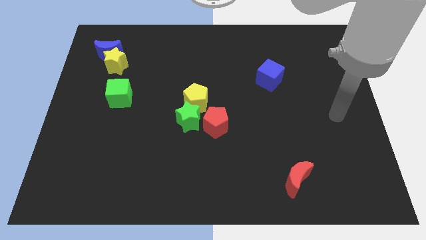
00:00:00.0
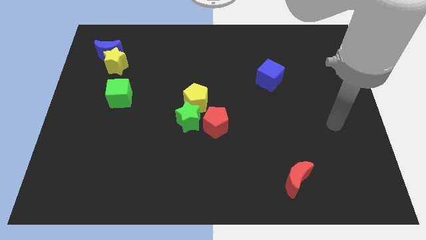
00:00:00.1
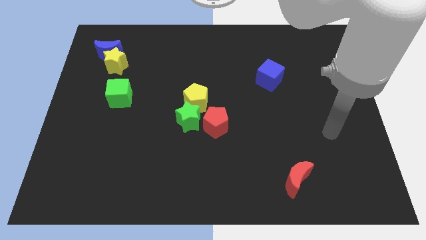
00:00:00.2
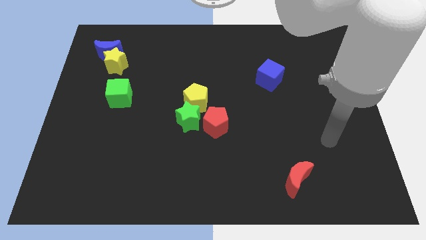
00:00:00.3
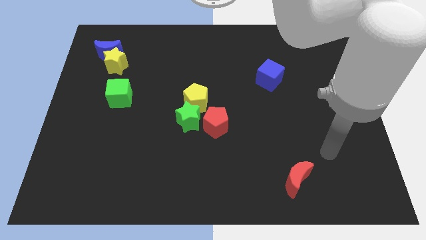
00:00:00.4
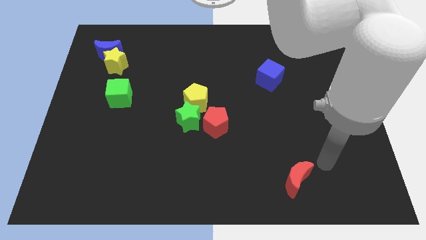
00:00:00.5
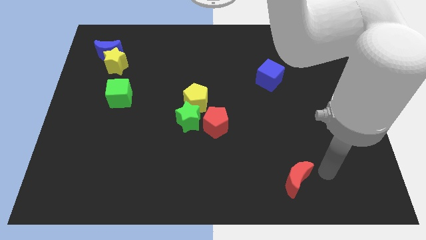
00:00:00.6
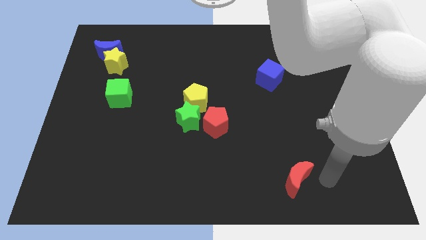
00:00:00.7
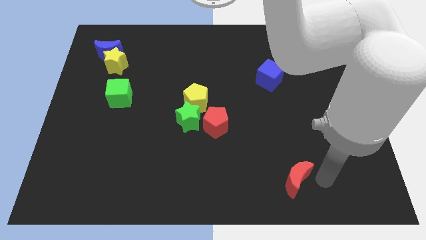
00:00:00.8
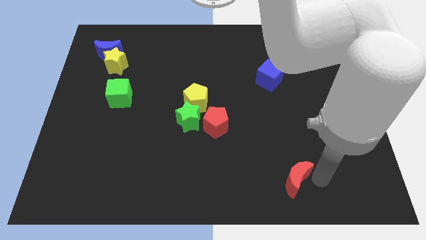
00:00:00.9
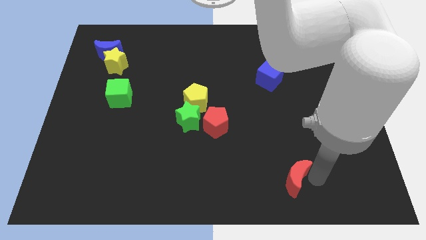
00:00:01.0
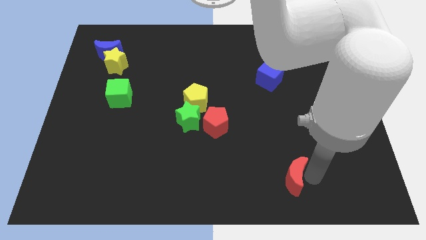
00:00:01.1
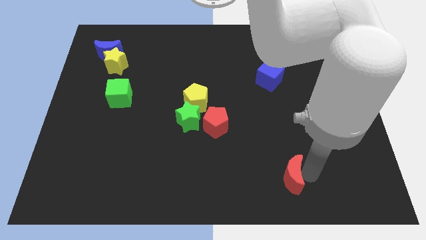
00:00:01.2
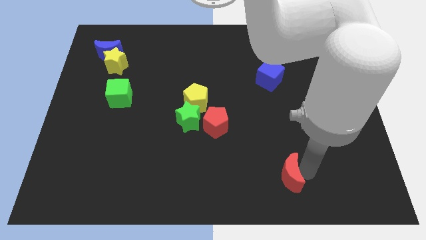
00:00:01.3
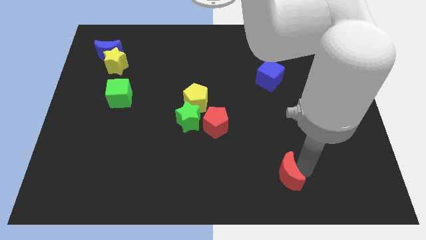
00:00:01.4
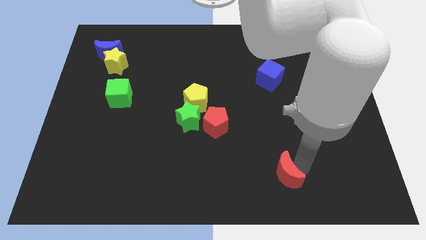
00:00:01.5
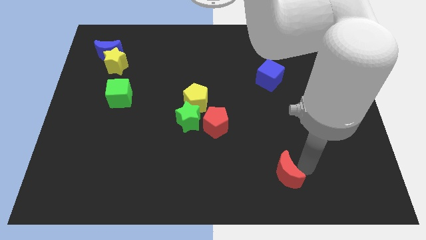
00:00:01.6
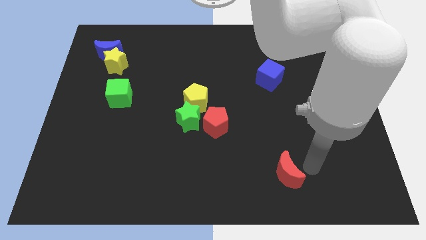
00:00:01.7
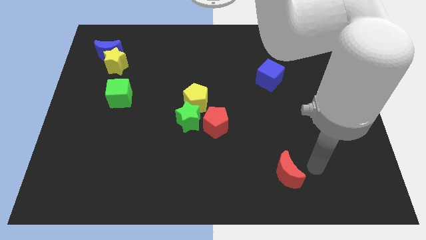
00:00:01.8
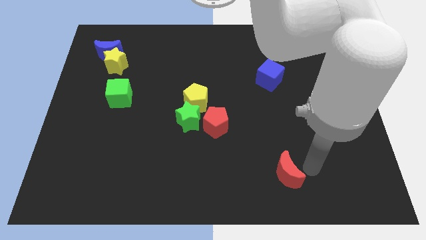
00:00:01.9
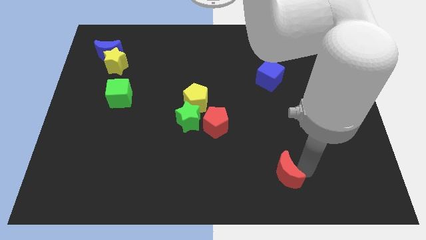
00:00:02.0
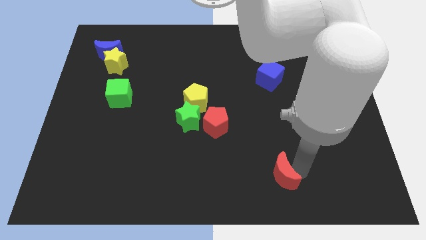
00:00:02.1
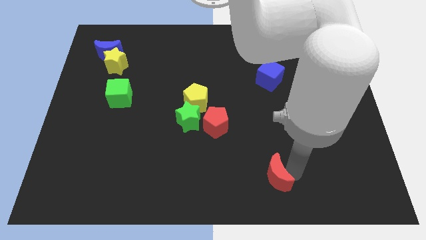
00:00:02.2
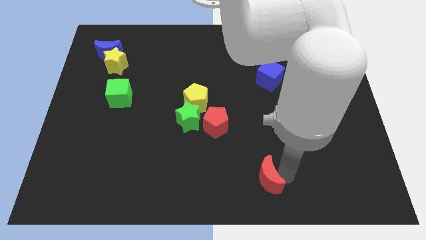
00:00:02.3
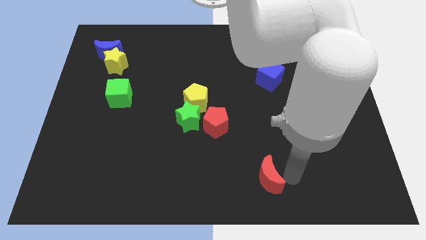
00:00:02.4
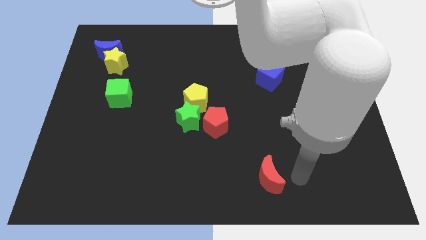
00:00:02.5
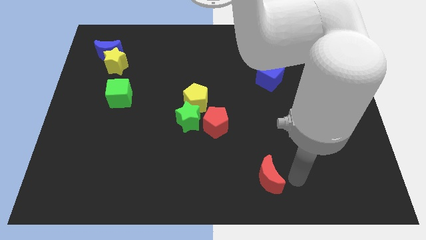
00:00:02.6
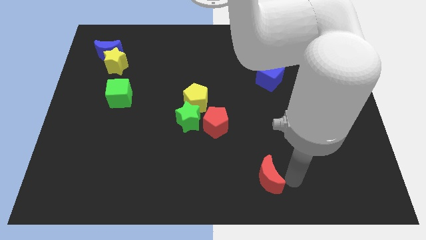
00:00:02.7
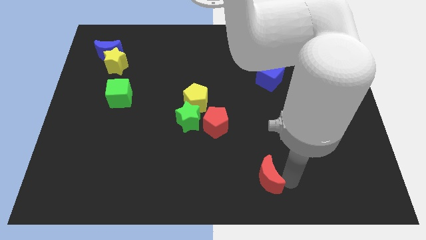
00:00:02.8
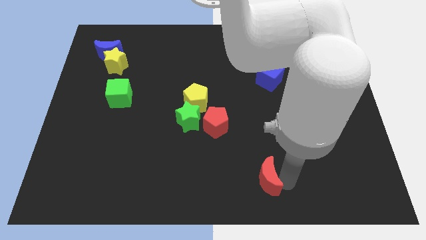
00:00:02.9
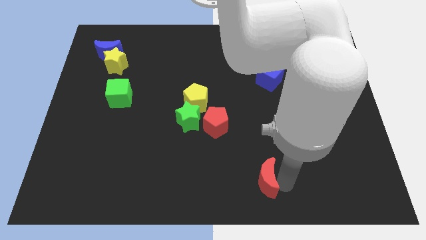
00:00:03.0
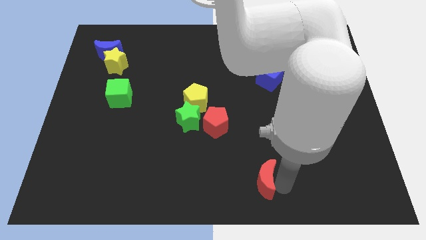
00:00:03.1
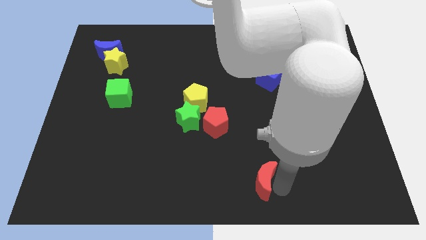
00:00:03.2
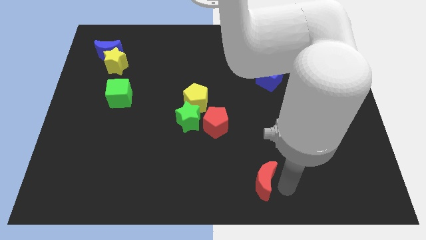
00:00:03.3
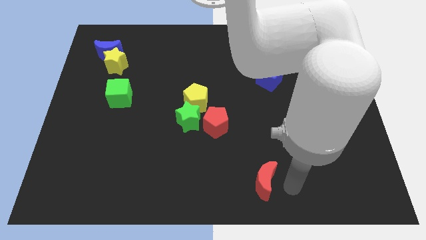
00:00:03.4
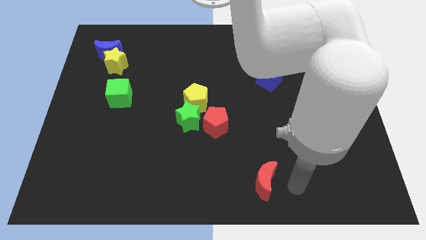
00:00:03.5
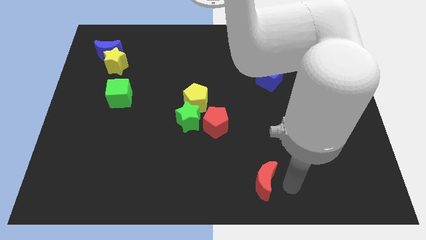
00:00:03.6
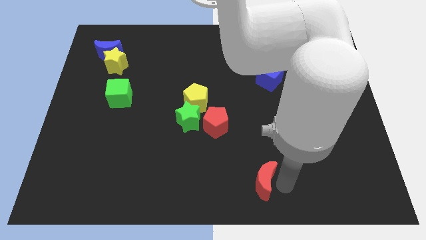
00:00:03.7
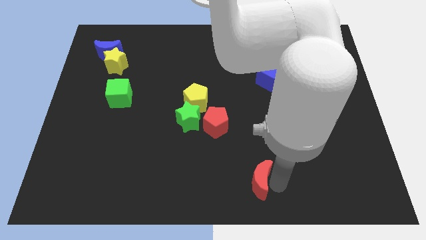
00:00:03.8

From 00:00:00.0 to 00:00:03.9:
slide the red moon to the left somewhat

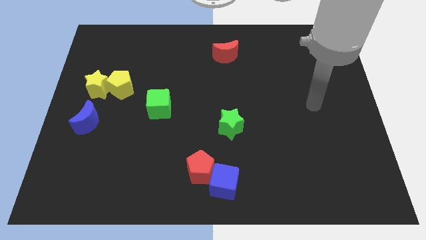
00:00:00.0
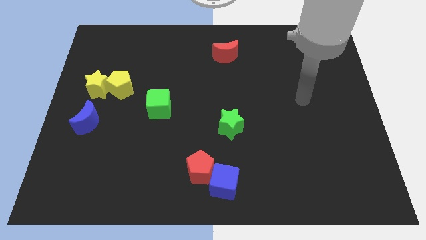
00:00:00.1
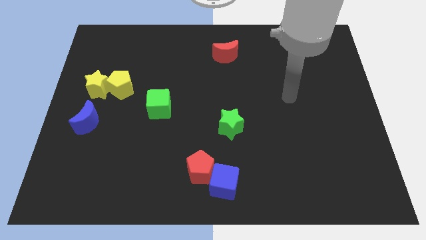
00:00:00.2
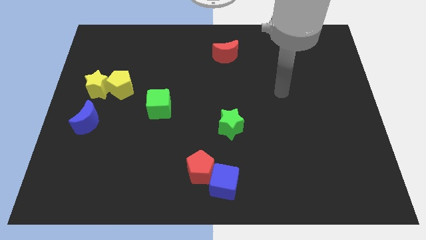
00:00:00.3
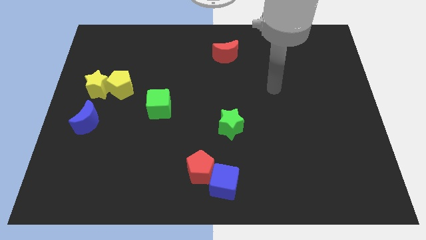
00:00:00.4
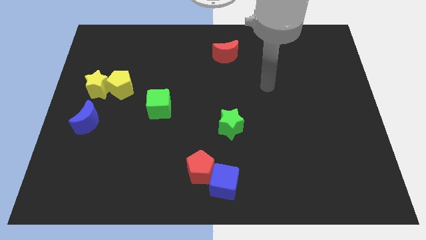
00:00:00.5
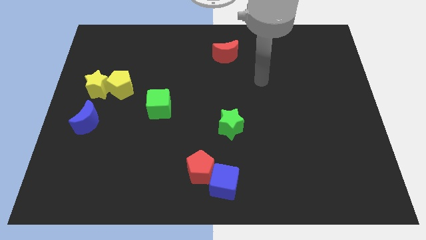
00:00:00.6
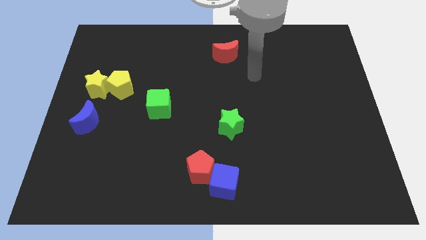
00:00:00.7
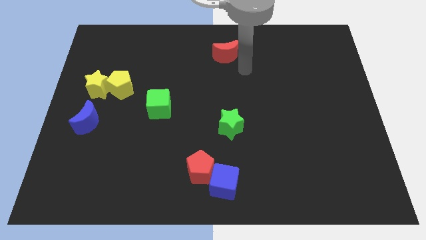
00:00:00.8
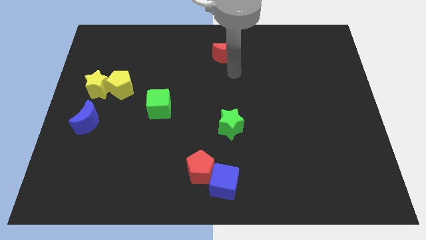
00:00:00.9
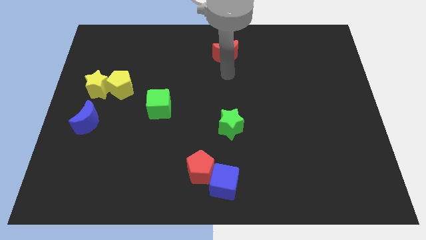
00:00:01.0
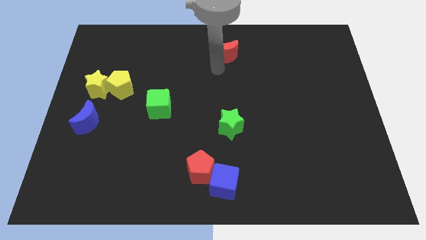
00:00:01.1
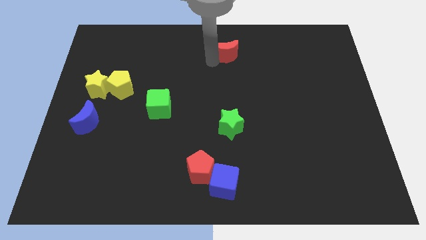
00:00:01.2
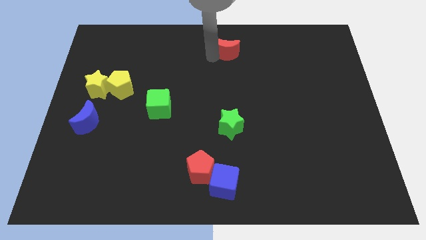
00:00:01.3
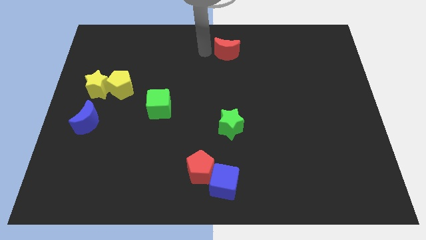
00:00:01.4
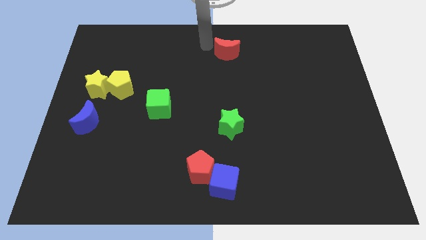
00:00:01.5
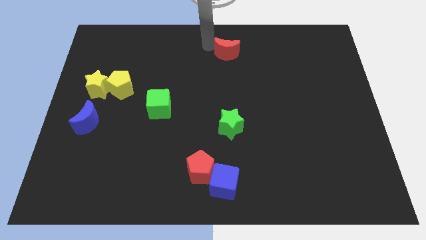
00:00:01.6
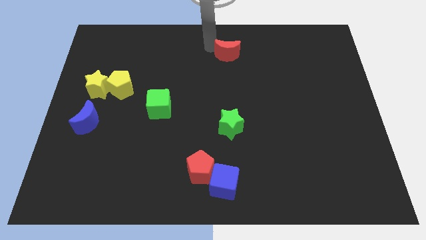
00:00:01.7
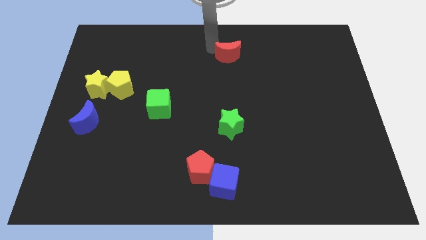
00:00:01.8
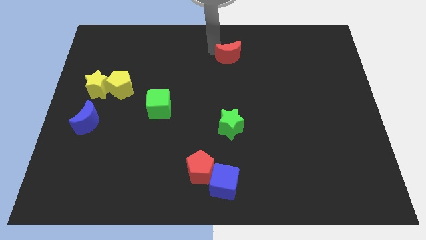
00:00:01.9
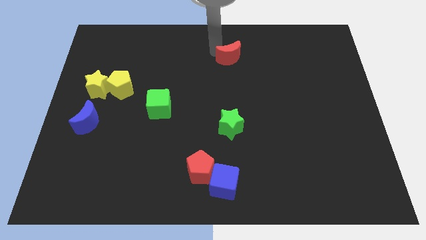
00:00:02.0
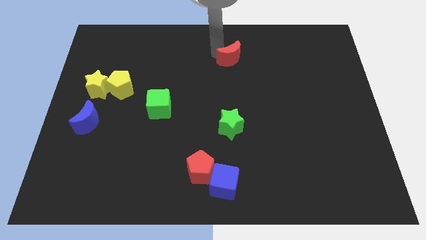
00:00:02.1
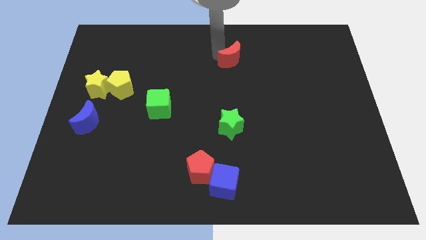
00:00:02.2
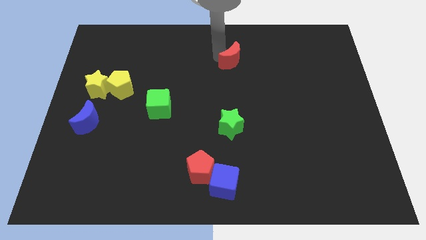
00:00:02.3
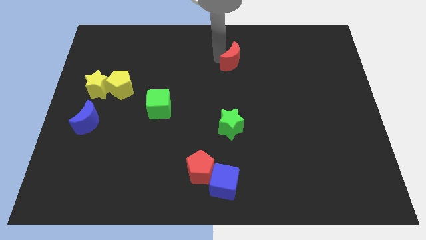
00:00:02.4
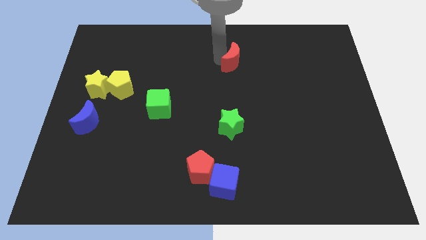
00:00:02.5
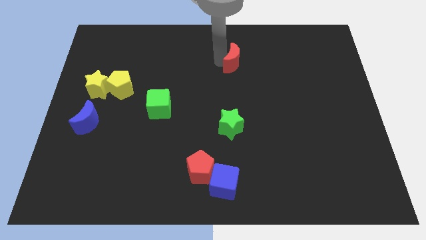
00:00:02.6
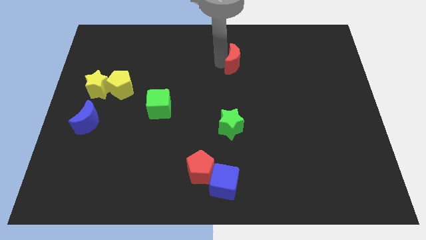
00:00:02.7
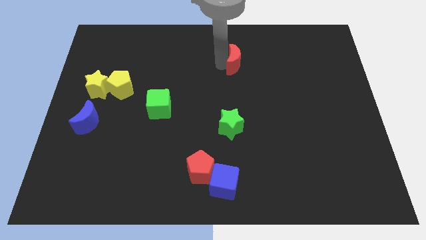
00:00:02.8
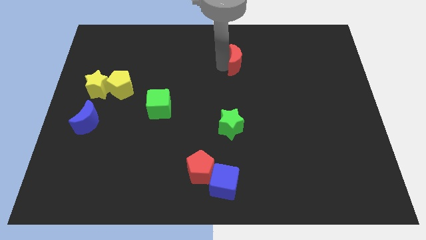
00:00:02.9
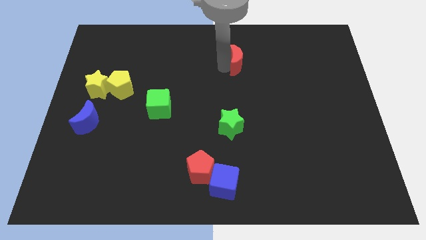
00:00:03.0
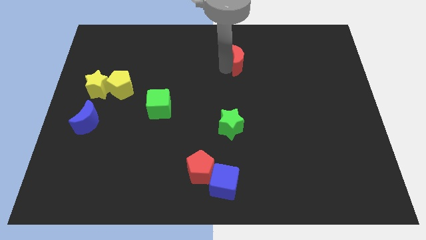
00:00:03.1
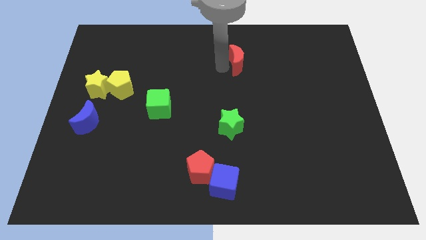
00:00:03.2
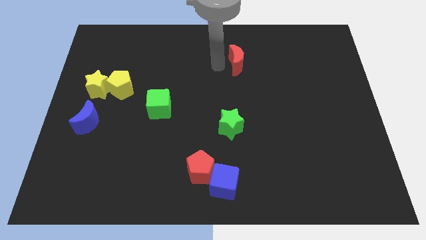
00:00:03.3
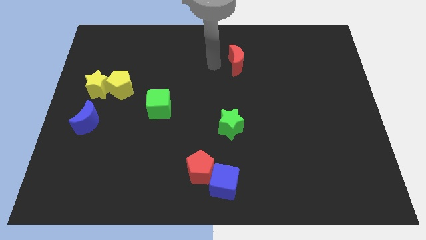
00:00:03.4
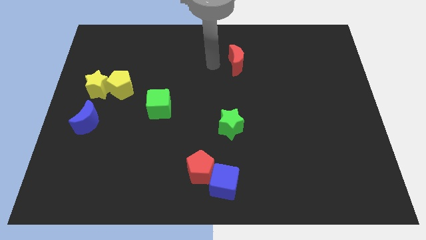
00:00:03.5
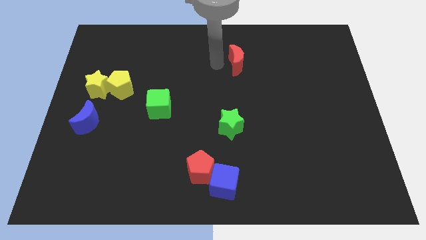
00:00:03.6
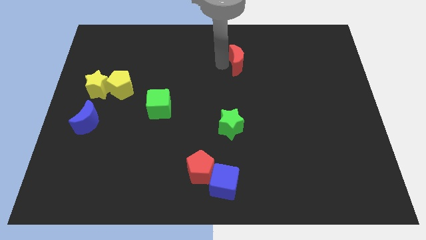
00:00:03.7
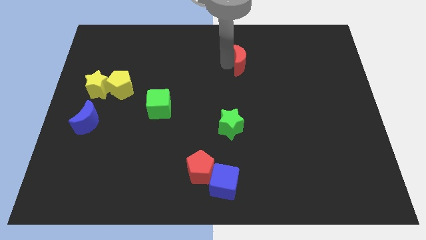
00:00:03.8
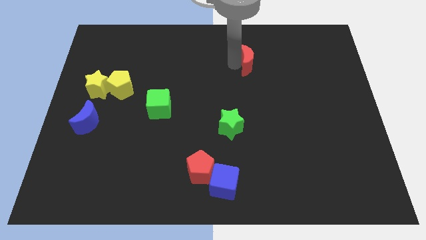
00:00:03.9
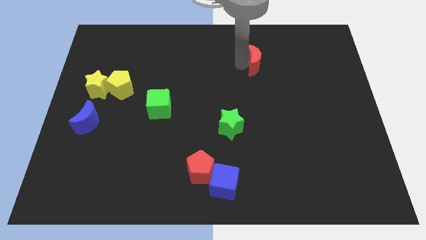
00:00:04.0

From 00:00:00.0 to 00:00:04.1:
push the red moon right slightly
